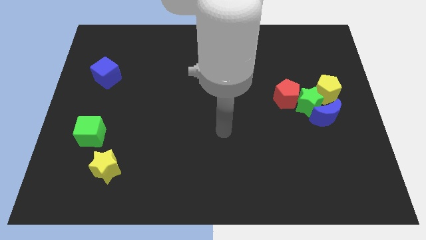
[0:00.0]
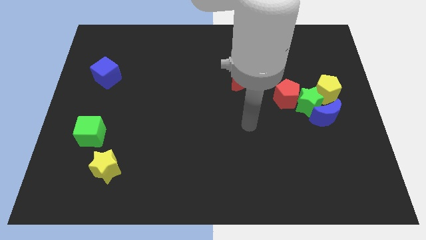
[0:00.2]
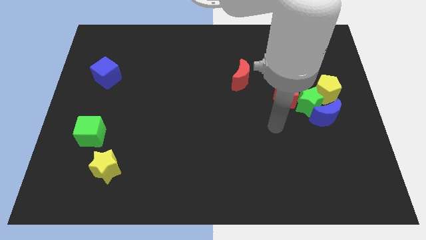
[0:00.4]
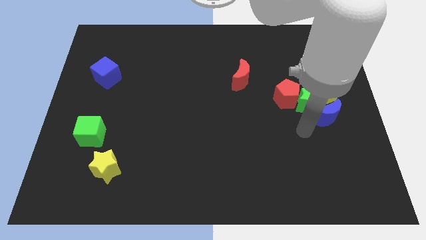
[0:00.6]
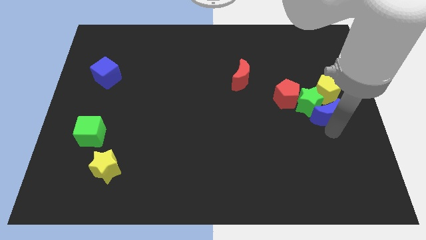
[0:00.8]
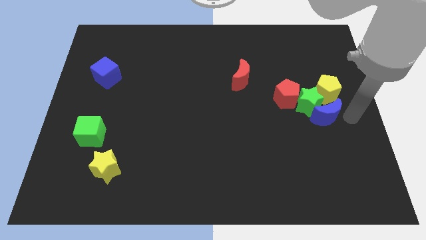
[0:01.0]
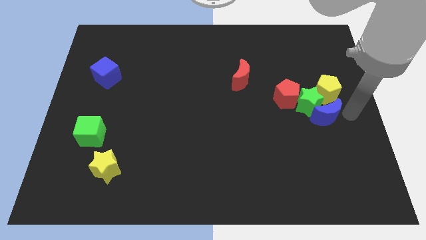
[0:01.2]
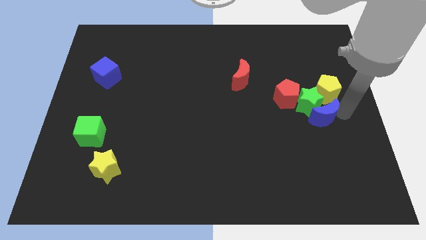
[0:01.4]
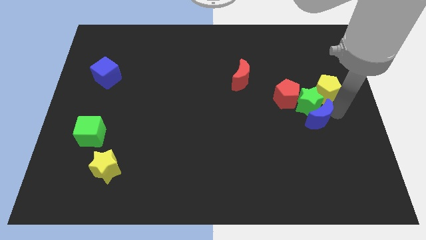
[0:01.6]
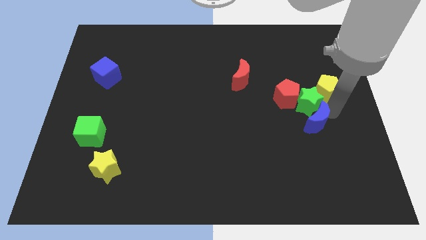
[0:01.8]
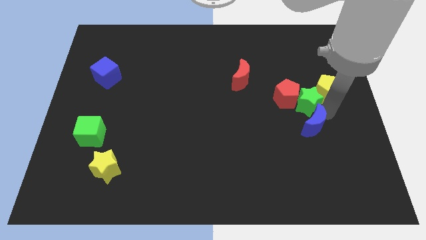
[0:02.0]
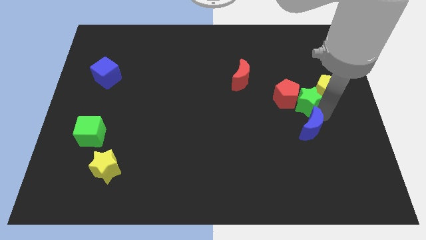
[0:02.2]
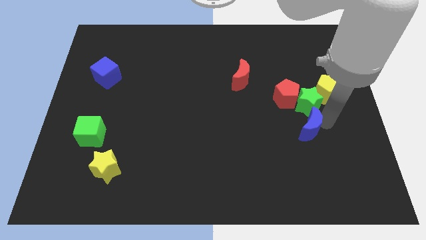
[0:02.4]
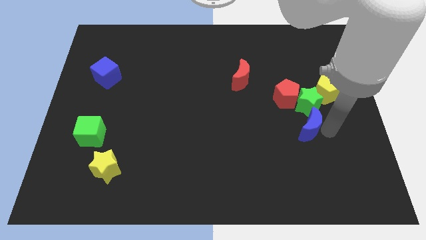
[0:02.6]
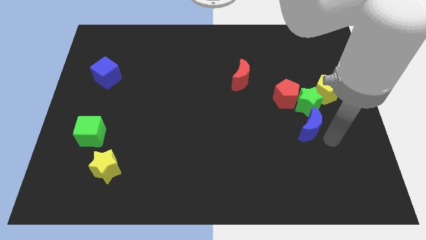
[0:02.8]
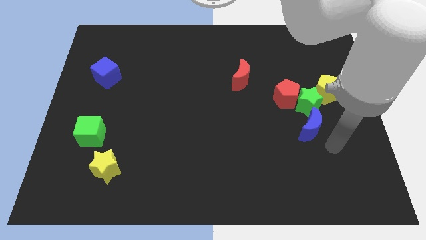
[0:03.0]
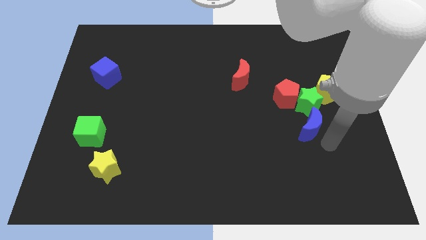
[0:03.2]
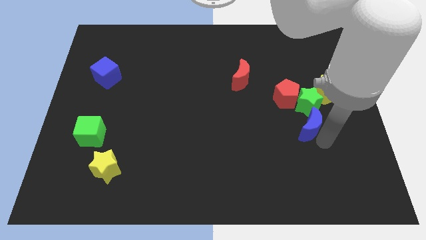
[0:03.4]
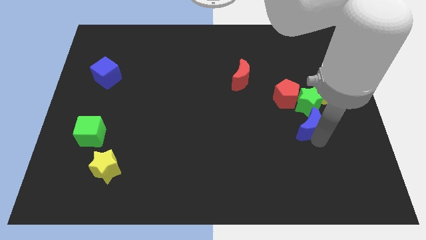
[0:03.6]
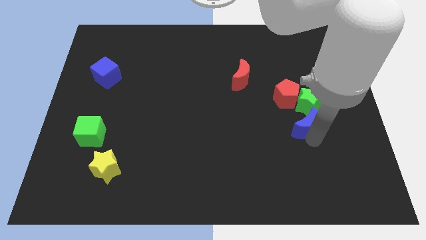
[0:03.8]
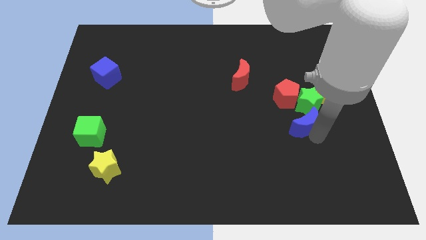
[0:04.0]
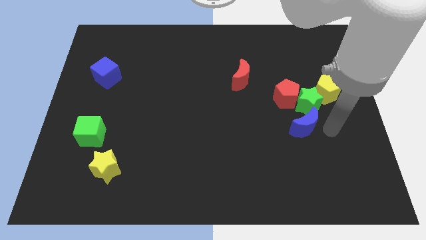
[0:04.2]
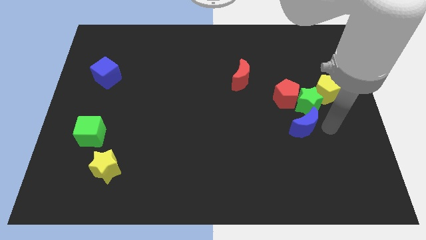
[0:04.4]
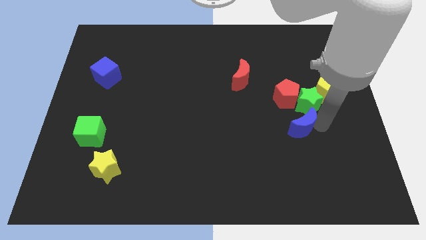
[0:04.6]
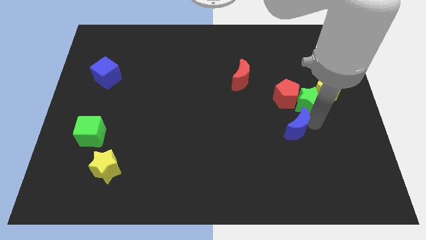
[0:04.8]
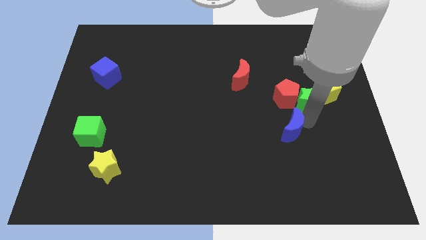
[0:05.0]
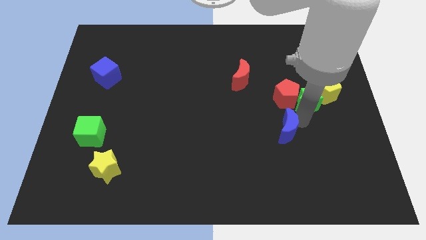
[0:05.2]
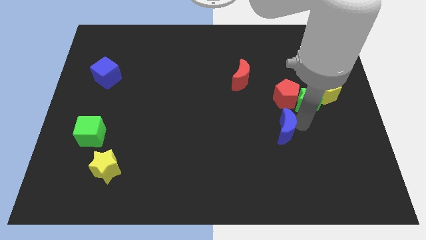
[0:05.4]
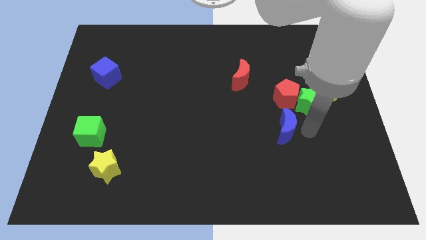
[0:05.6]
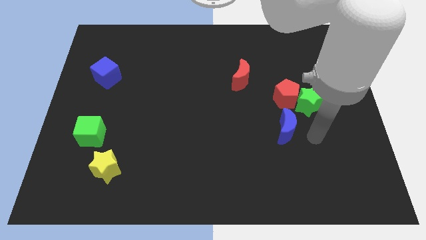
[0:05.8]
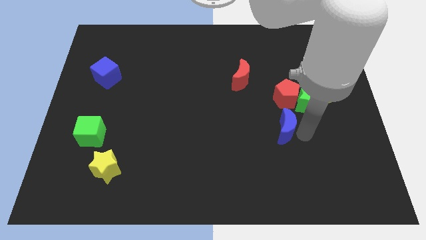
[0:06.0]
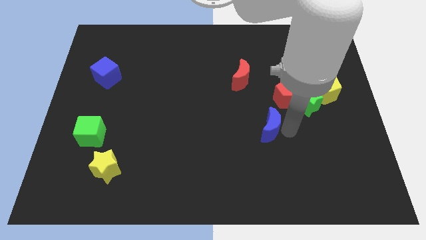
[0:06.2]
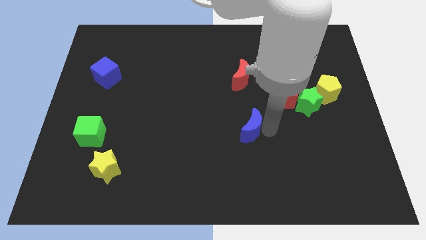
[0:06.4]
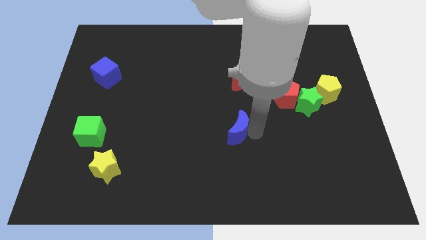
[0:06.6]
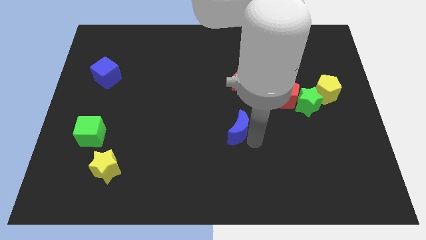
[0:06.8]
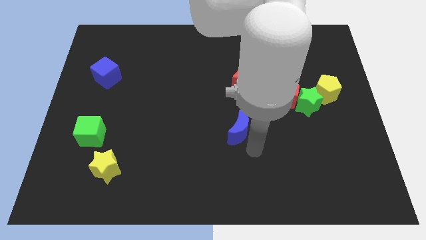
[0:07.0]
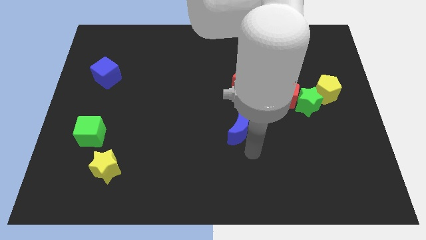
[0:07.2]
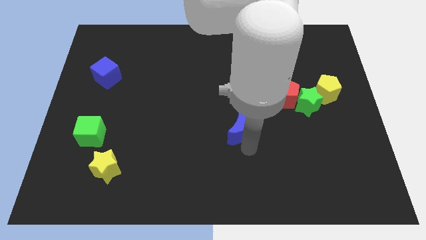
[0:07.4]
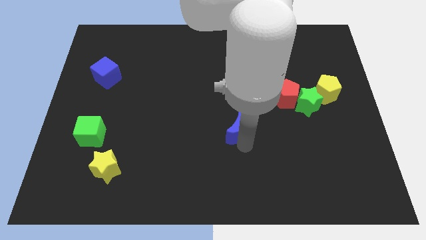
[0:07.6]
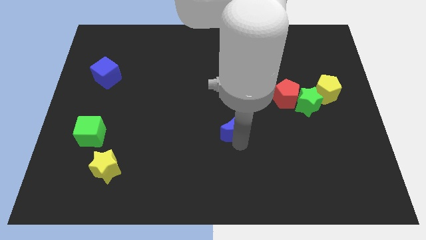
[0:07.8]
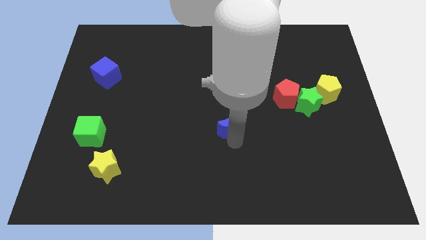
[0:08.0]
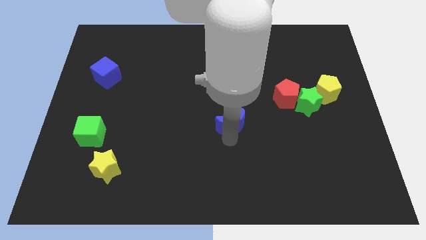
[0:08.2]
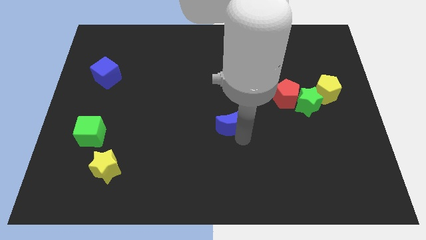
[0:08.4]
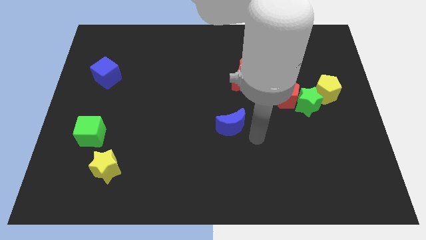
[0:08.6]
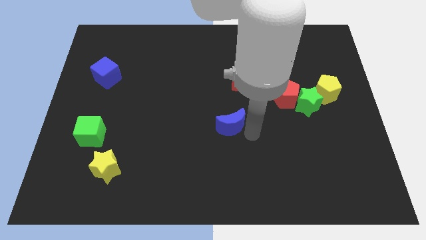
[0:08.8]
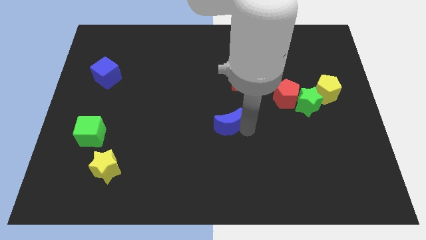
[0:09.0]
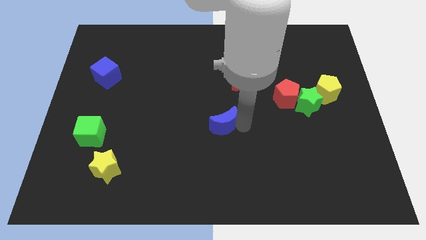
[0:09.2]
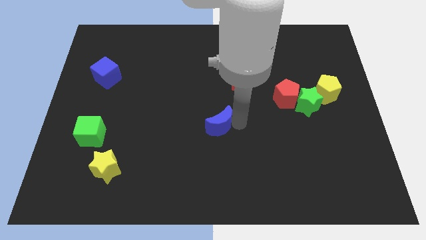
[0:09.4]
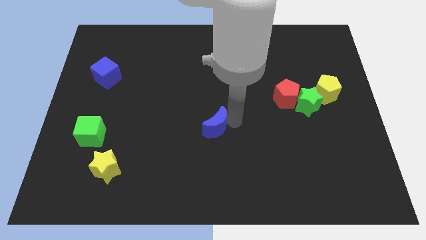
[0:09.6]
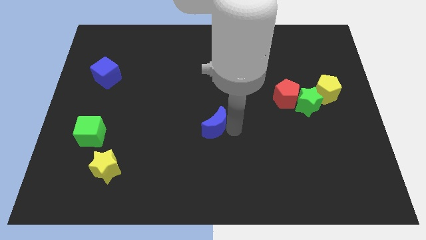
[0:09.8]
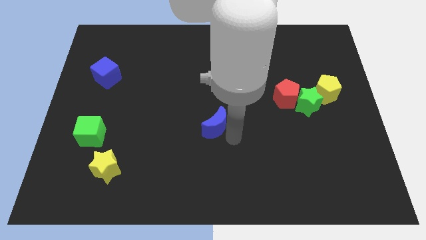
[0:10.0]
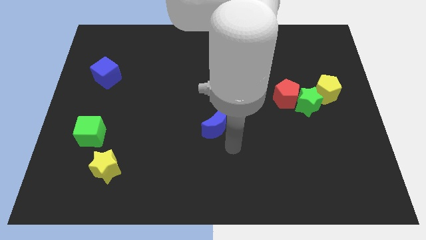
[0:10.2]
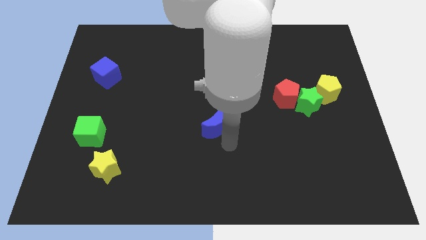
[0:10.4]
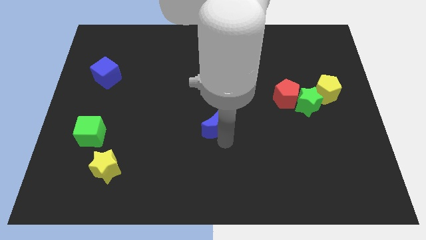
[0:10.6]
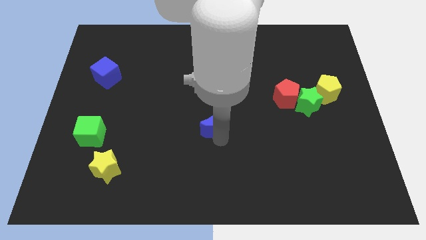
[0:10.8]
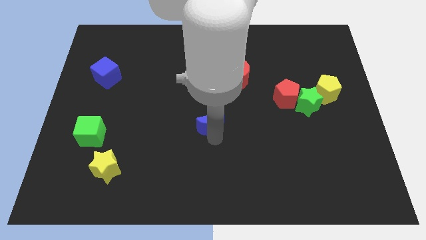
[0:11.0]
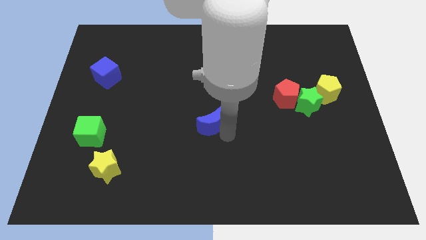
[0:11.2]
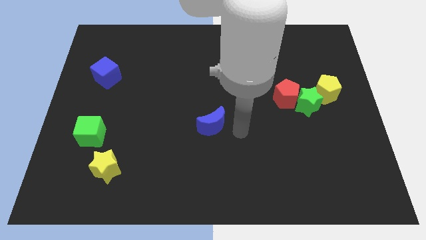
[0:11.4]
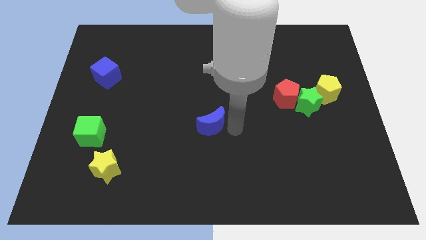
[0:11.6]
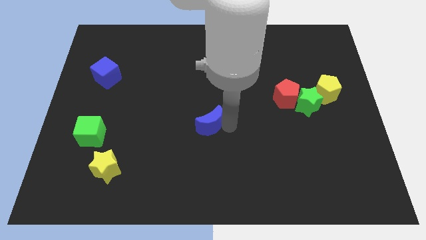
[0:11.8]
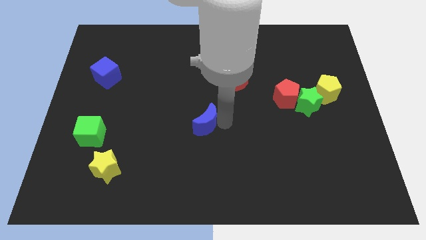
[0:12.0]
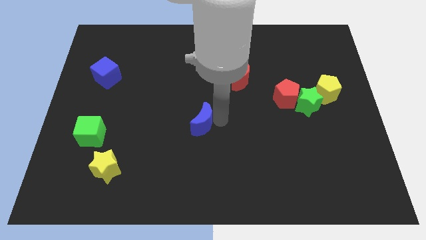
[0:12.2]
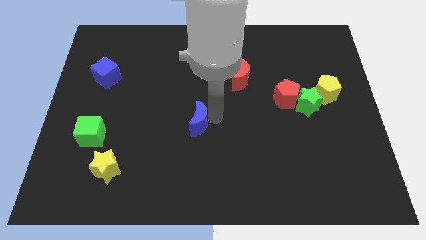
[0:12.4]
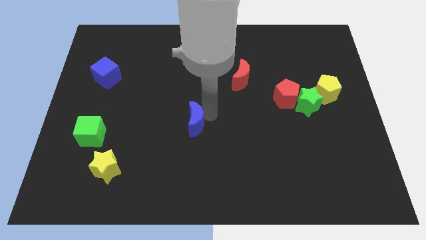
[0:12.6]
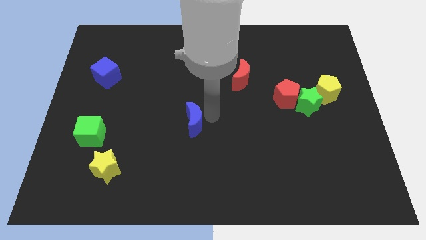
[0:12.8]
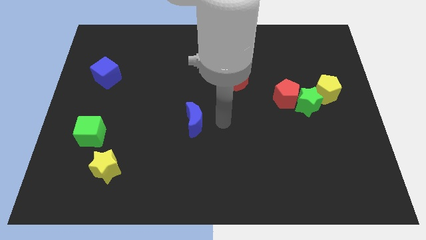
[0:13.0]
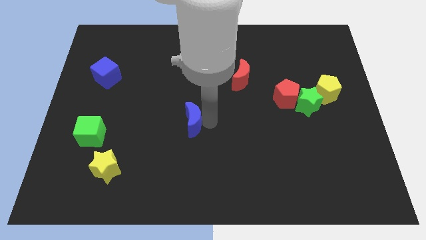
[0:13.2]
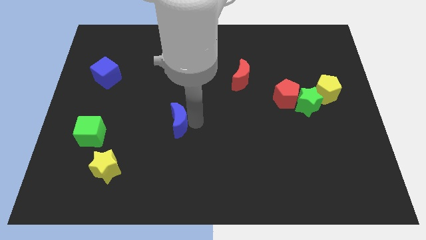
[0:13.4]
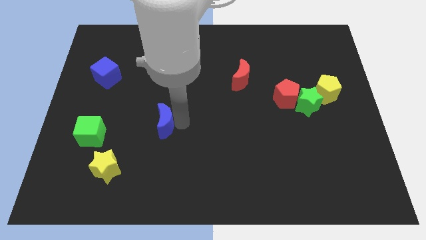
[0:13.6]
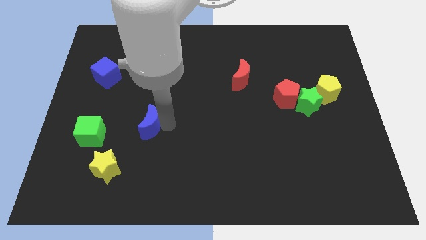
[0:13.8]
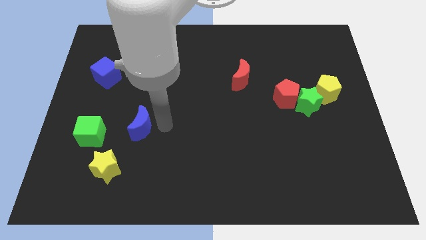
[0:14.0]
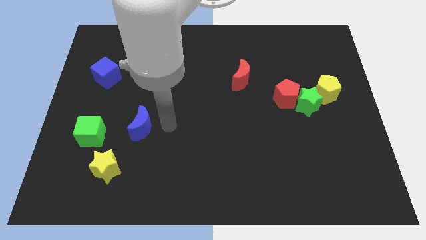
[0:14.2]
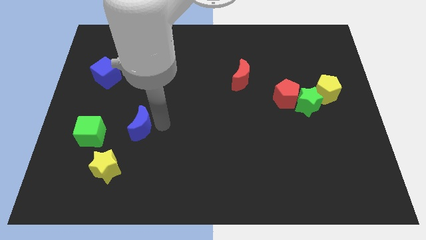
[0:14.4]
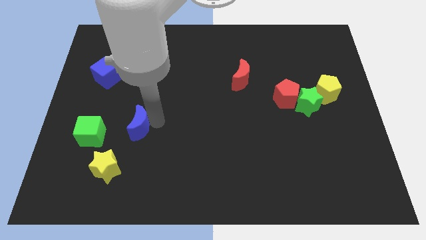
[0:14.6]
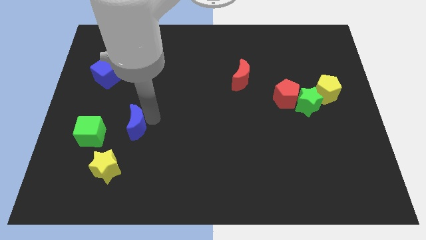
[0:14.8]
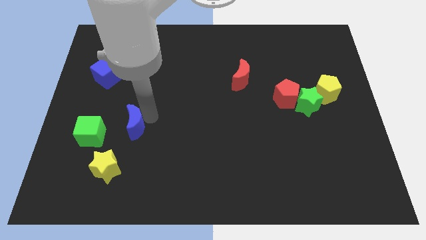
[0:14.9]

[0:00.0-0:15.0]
slide the blue moon to the top side of the yellow star
